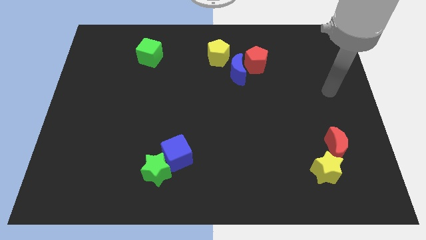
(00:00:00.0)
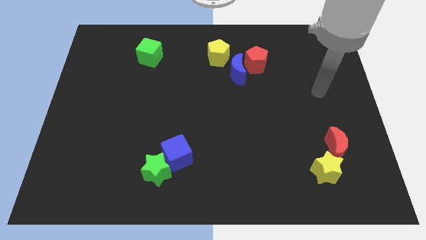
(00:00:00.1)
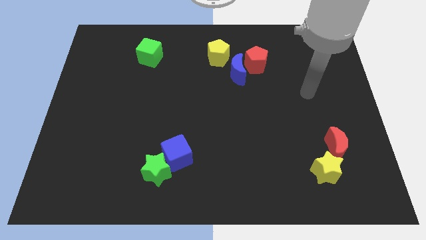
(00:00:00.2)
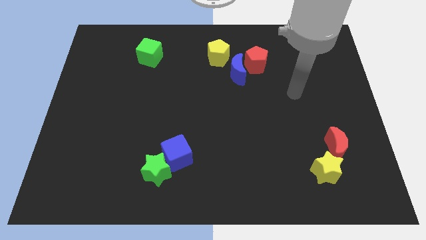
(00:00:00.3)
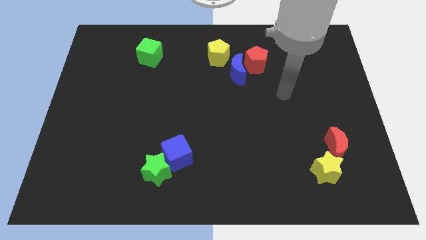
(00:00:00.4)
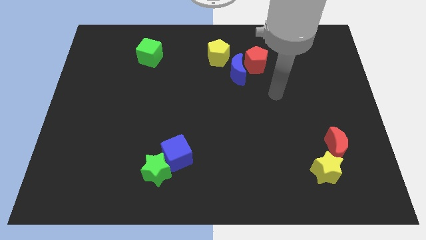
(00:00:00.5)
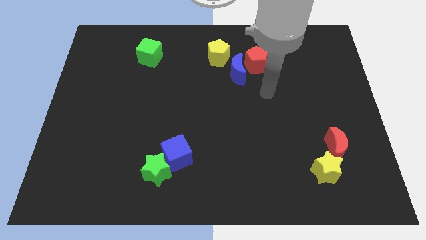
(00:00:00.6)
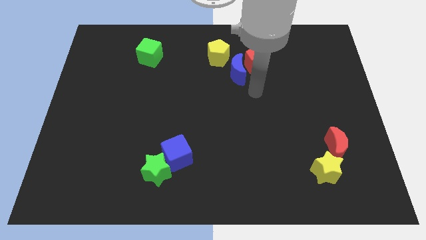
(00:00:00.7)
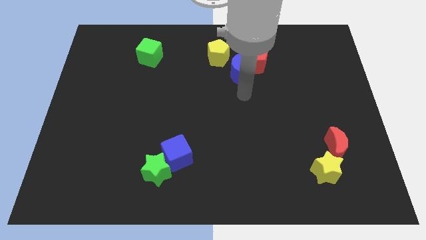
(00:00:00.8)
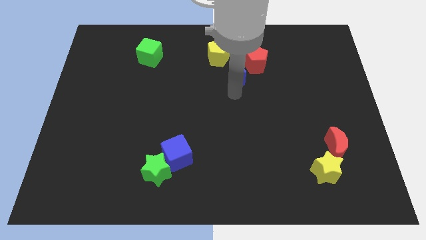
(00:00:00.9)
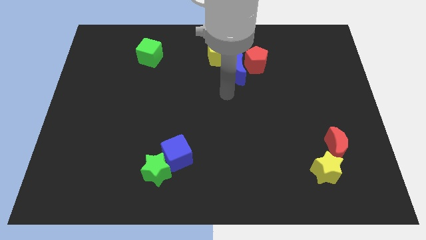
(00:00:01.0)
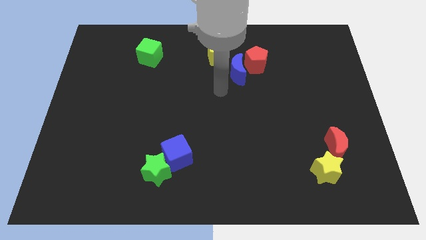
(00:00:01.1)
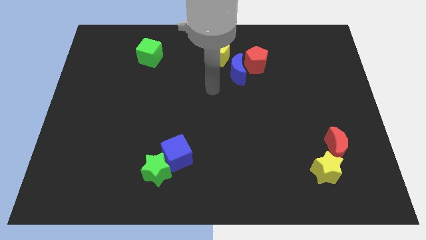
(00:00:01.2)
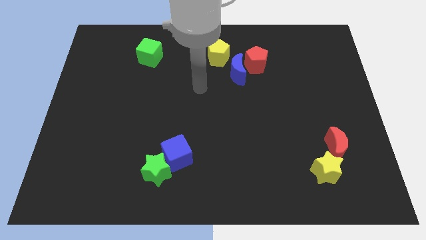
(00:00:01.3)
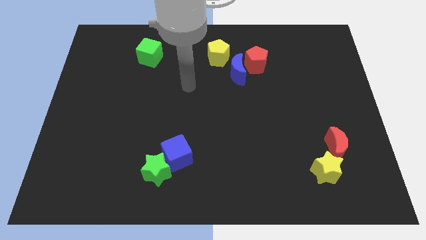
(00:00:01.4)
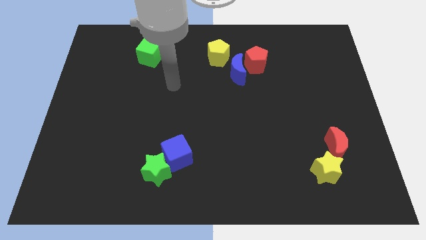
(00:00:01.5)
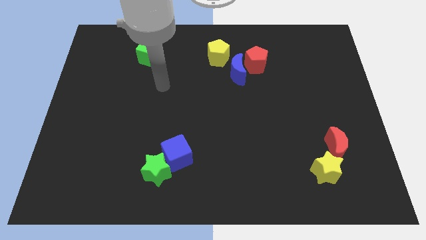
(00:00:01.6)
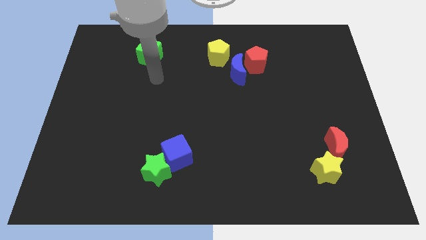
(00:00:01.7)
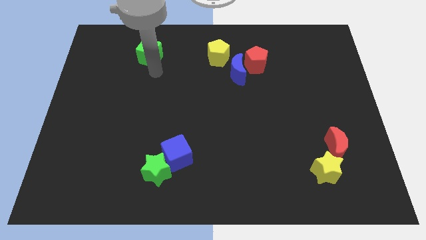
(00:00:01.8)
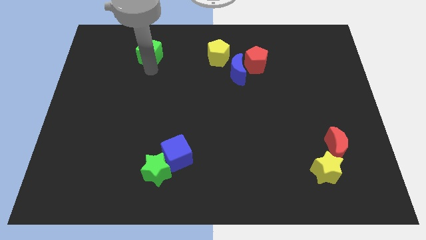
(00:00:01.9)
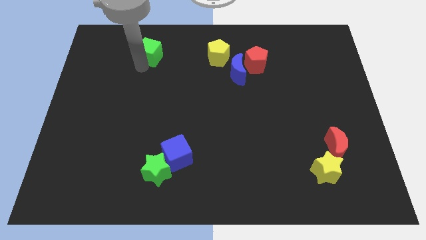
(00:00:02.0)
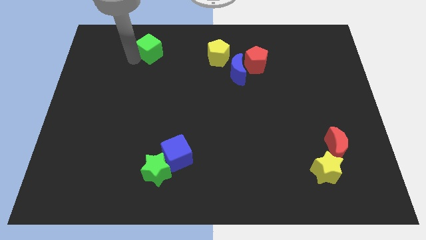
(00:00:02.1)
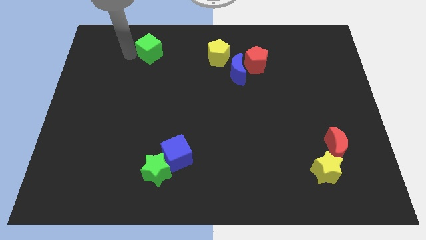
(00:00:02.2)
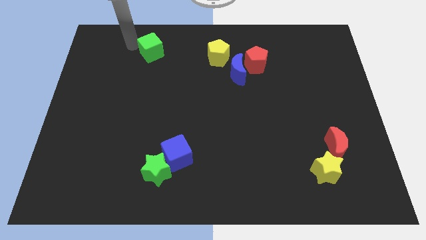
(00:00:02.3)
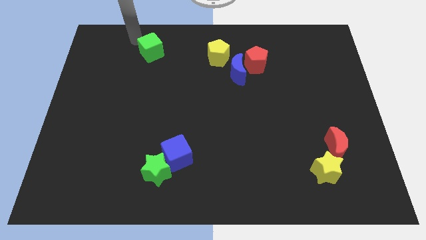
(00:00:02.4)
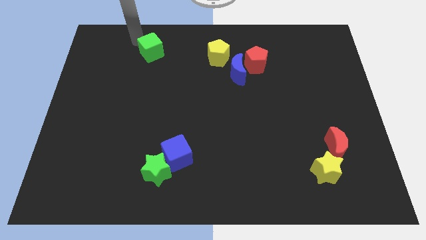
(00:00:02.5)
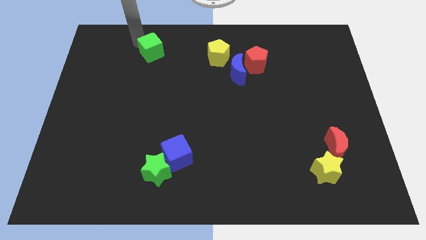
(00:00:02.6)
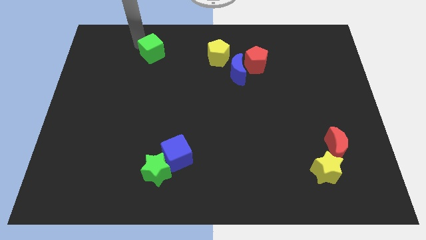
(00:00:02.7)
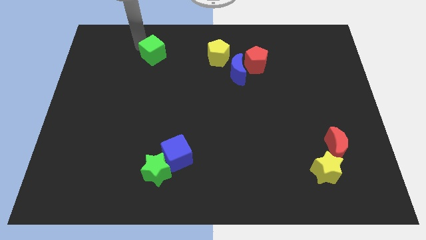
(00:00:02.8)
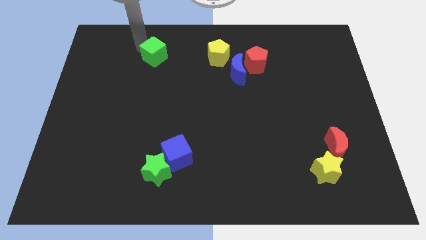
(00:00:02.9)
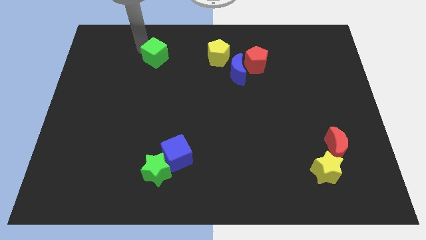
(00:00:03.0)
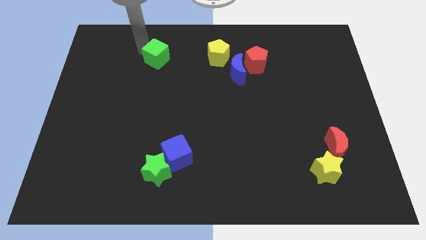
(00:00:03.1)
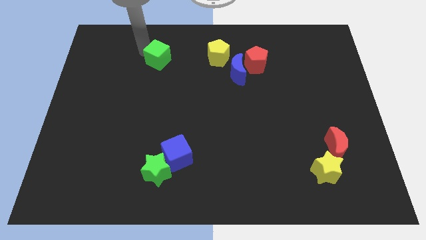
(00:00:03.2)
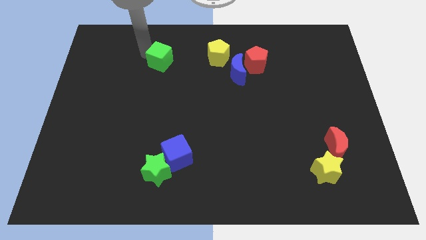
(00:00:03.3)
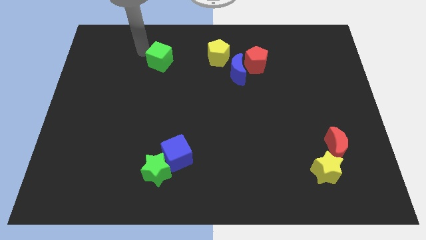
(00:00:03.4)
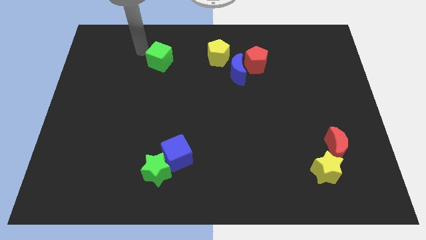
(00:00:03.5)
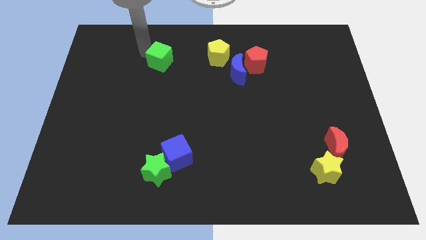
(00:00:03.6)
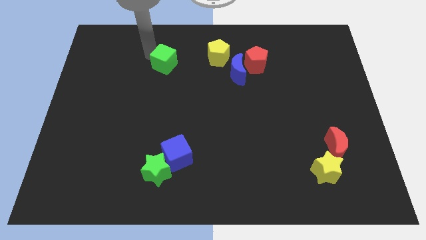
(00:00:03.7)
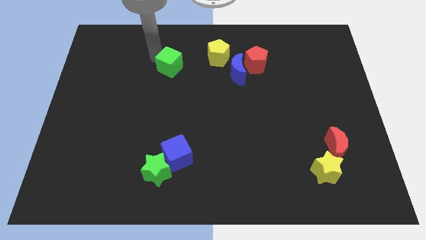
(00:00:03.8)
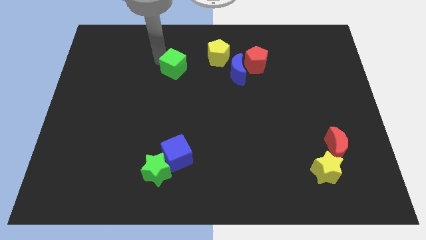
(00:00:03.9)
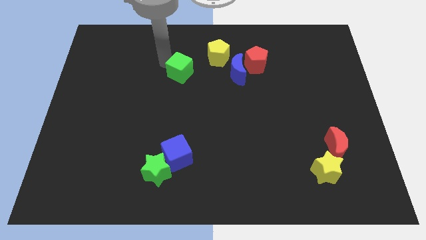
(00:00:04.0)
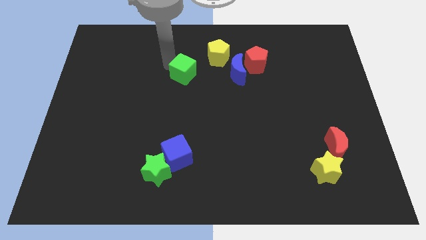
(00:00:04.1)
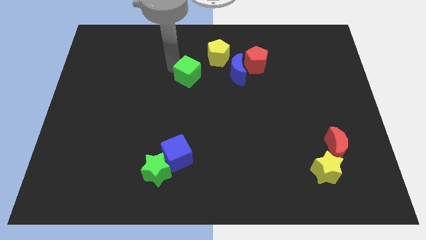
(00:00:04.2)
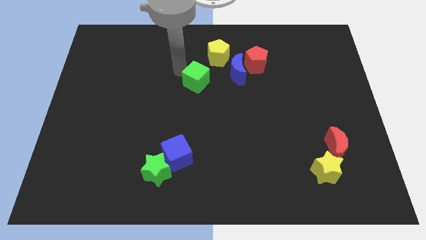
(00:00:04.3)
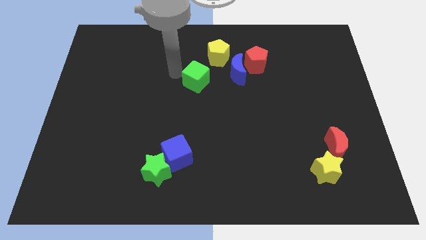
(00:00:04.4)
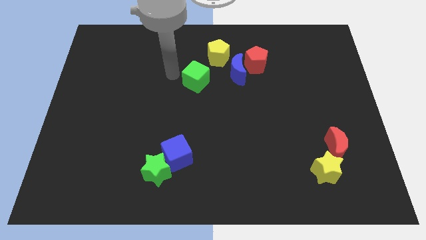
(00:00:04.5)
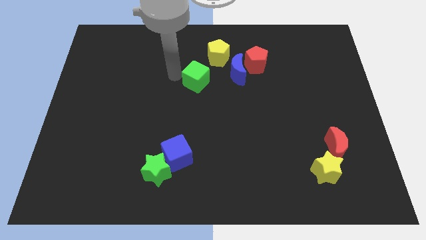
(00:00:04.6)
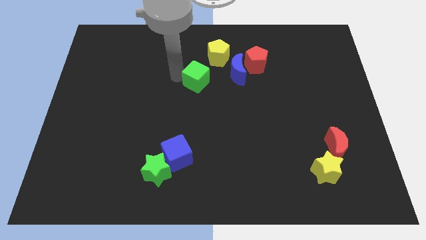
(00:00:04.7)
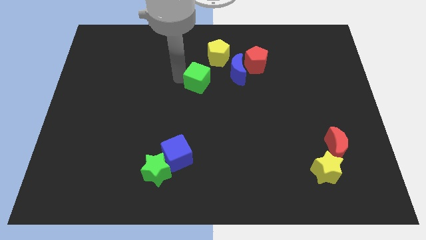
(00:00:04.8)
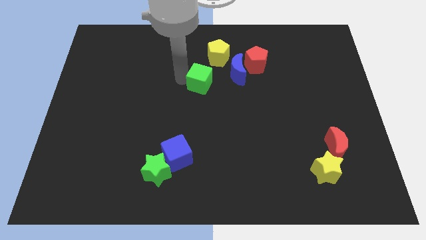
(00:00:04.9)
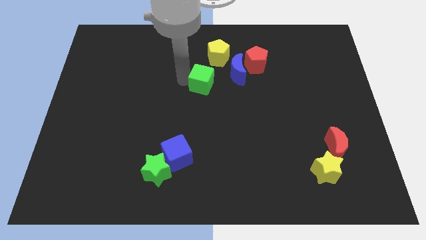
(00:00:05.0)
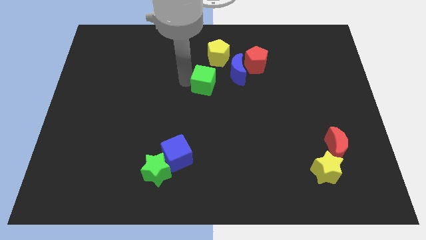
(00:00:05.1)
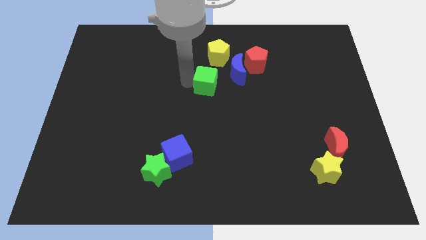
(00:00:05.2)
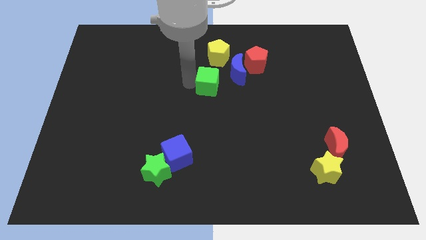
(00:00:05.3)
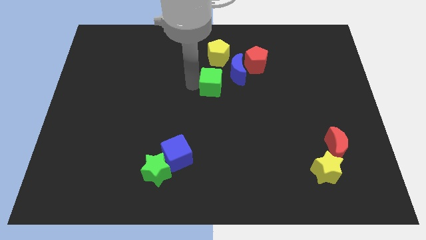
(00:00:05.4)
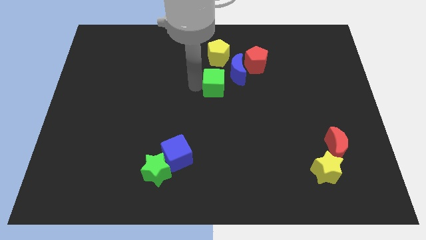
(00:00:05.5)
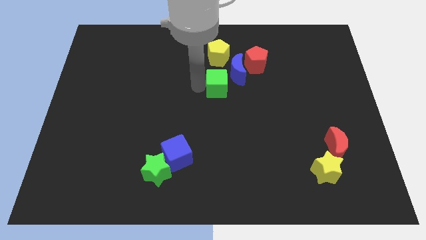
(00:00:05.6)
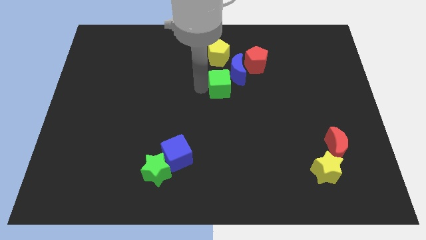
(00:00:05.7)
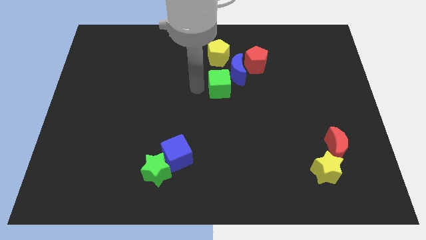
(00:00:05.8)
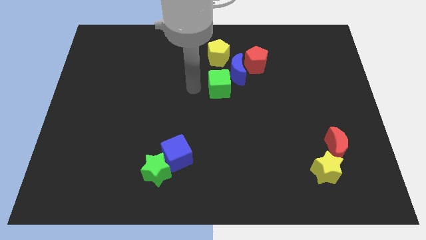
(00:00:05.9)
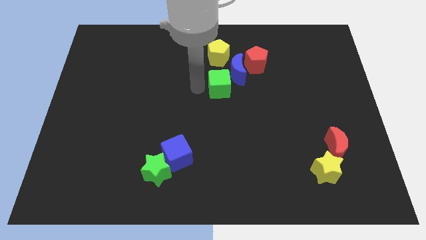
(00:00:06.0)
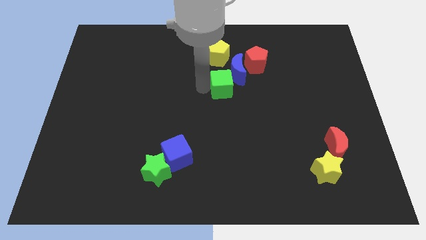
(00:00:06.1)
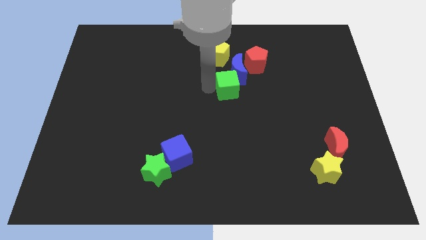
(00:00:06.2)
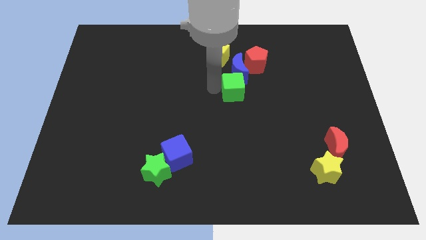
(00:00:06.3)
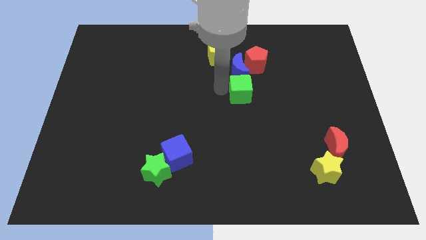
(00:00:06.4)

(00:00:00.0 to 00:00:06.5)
slide the green cube diagonally down and to the right of the blue moon
